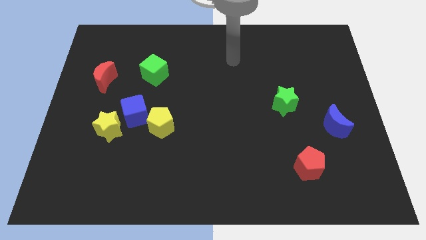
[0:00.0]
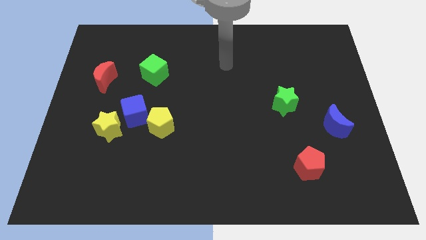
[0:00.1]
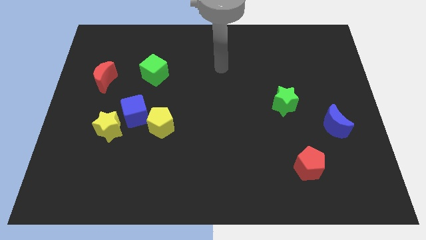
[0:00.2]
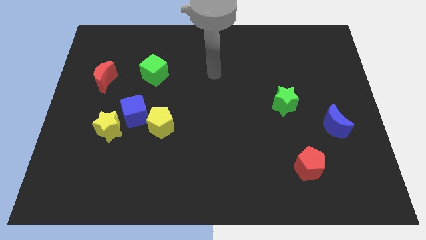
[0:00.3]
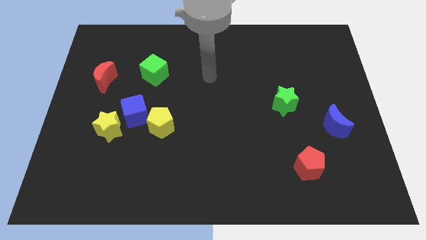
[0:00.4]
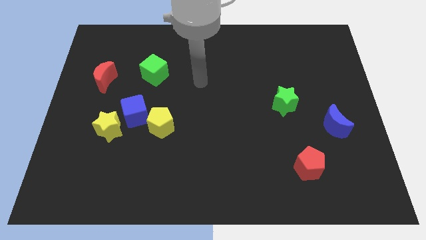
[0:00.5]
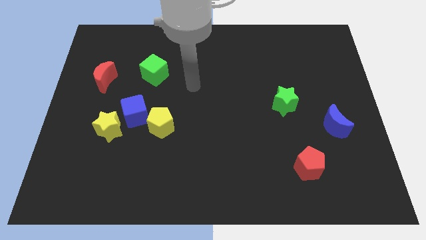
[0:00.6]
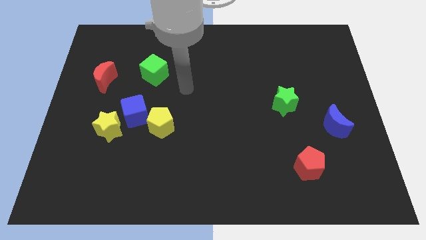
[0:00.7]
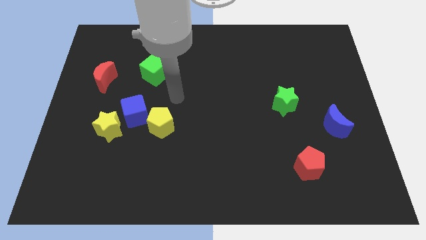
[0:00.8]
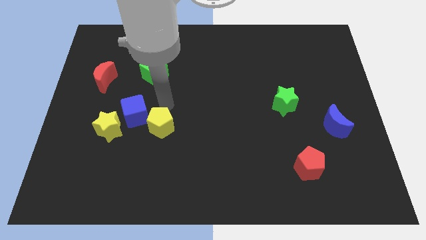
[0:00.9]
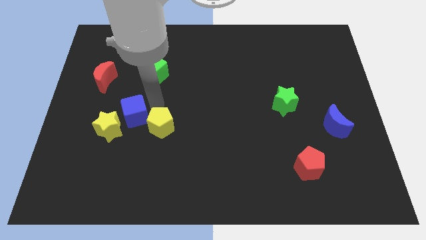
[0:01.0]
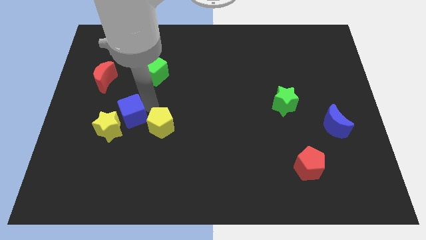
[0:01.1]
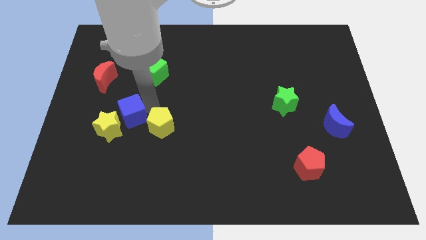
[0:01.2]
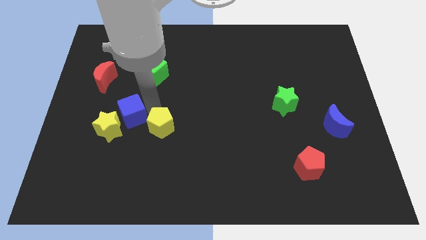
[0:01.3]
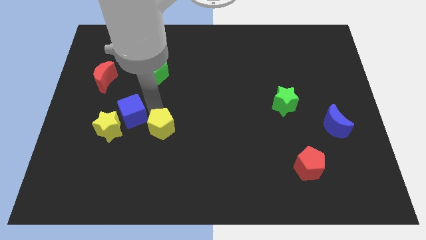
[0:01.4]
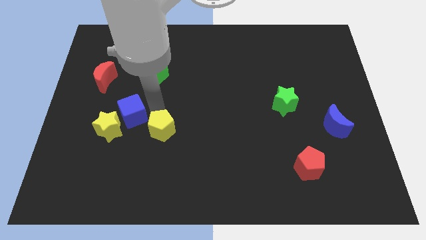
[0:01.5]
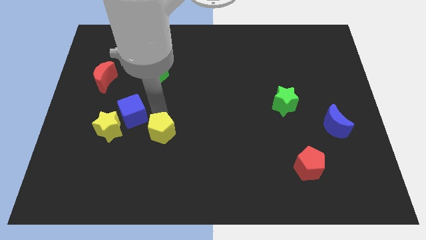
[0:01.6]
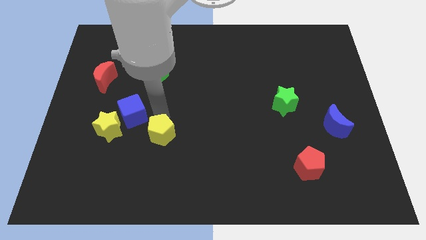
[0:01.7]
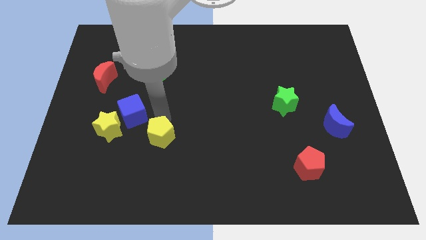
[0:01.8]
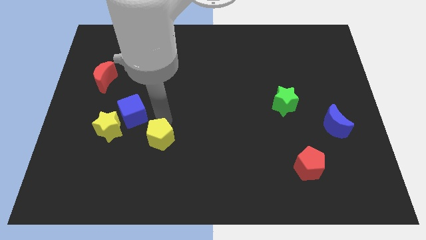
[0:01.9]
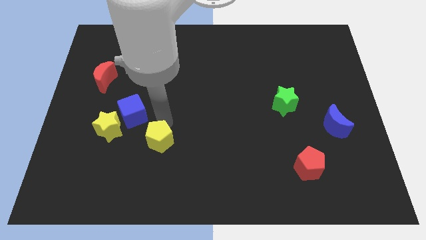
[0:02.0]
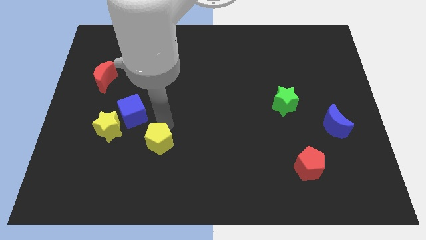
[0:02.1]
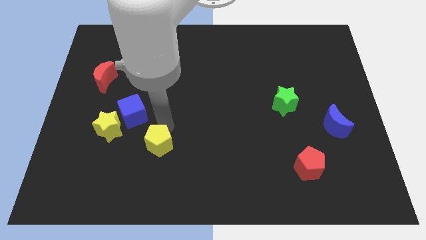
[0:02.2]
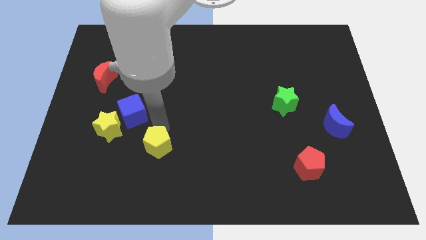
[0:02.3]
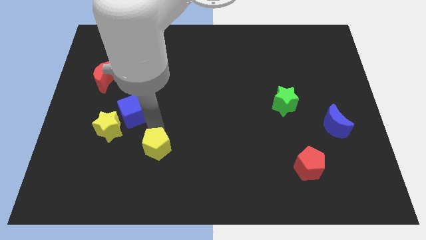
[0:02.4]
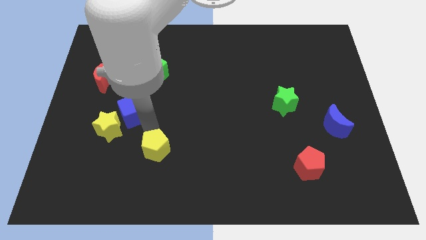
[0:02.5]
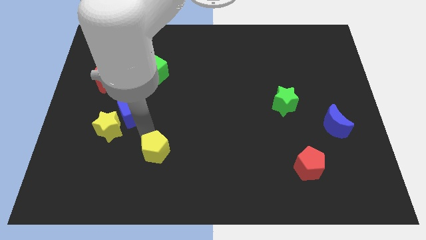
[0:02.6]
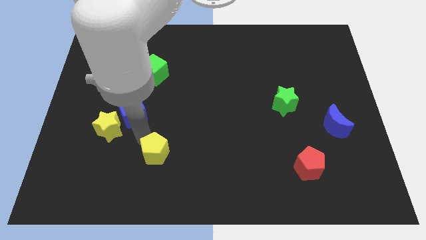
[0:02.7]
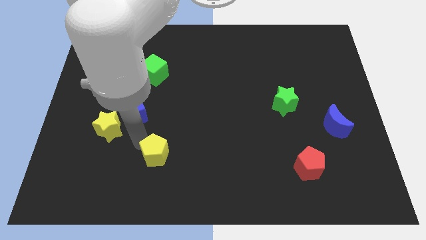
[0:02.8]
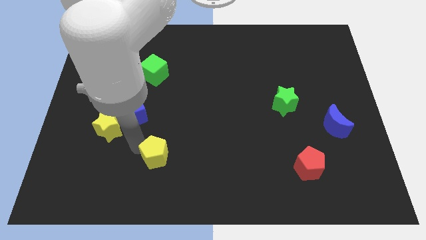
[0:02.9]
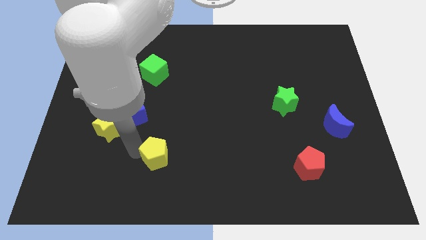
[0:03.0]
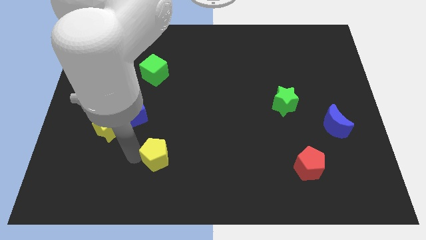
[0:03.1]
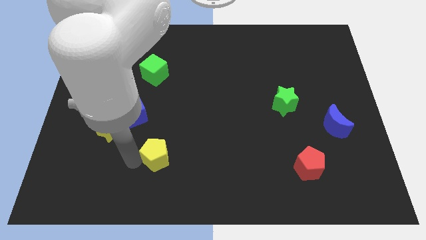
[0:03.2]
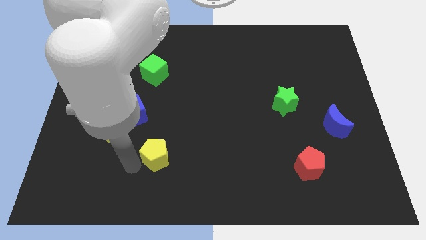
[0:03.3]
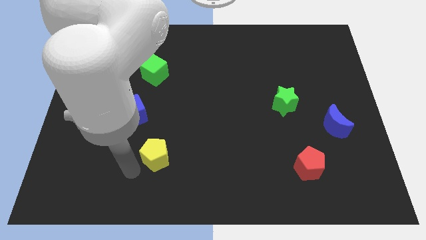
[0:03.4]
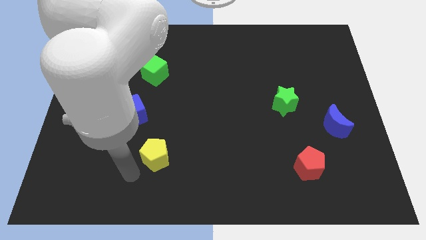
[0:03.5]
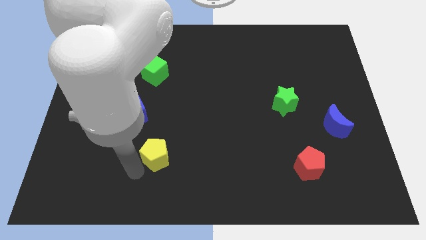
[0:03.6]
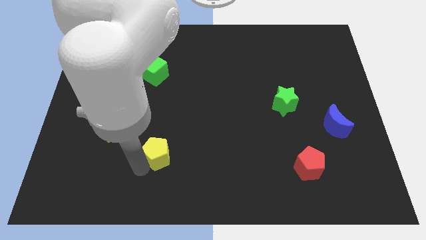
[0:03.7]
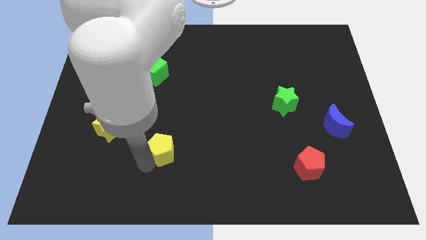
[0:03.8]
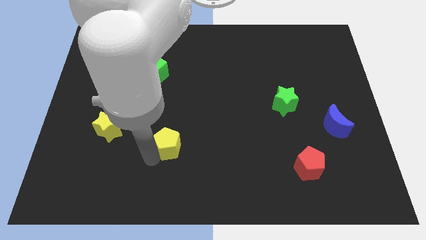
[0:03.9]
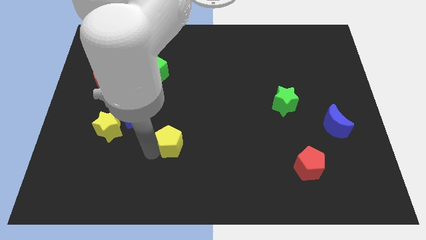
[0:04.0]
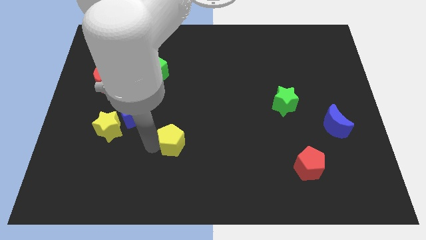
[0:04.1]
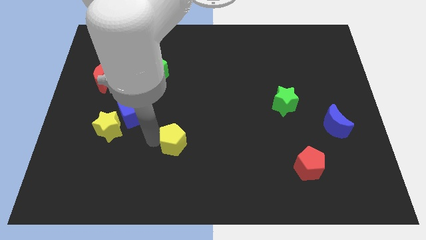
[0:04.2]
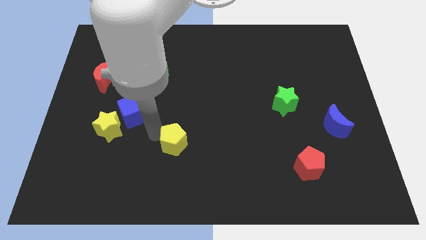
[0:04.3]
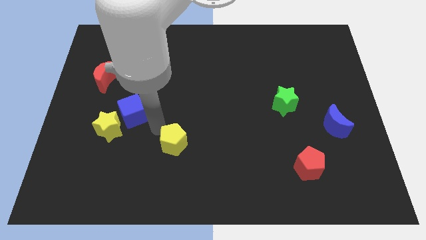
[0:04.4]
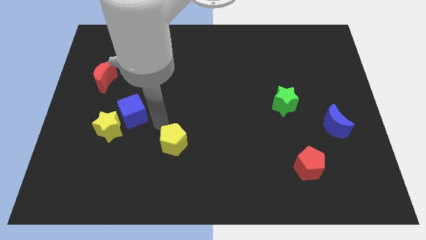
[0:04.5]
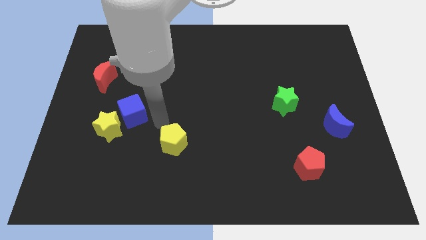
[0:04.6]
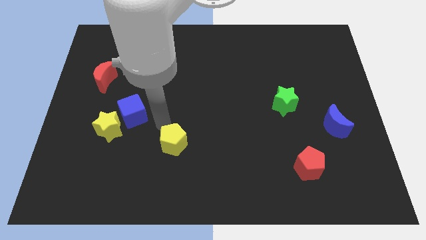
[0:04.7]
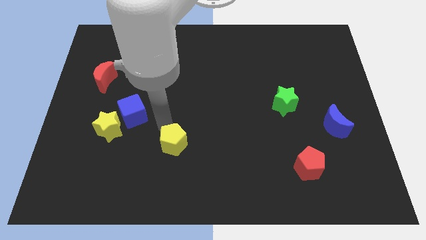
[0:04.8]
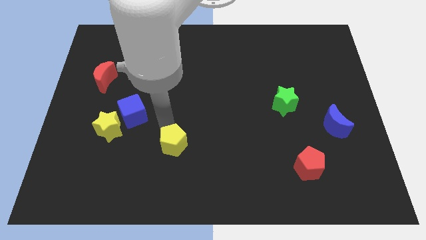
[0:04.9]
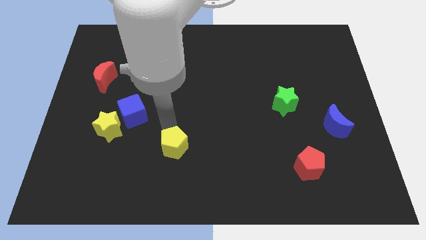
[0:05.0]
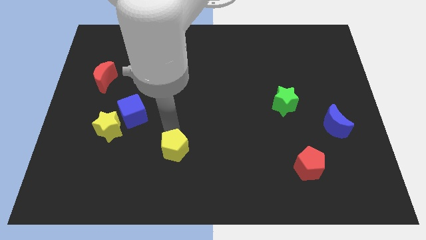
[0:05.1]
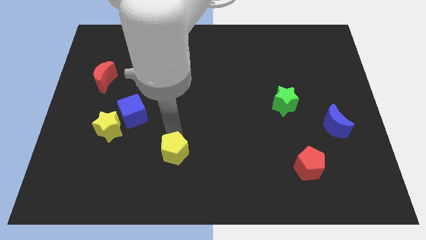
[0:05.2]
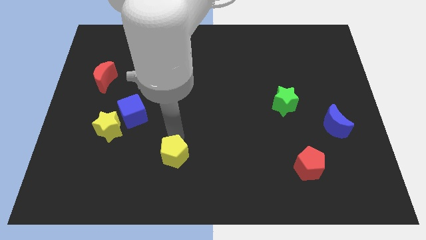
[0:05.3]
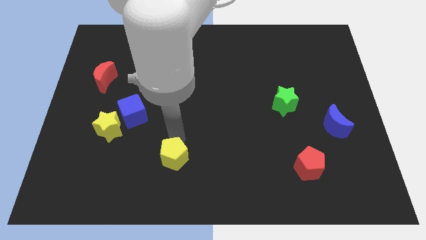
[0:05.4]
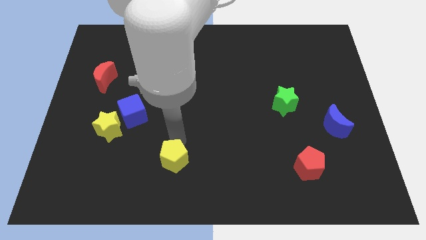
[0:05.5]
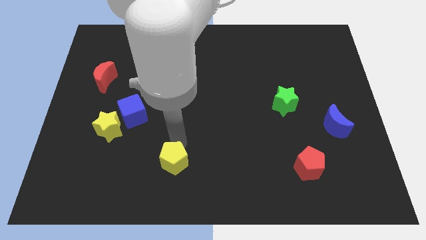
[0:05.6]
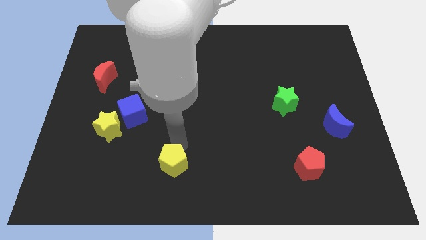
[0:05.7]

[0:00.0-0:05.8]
push the yellow pentagon to the bottom
